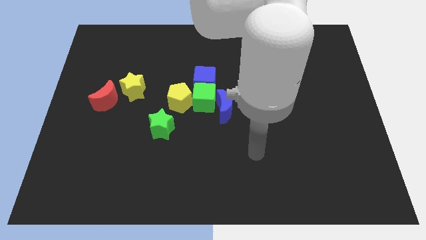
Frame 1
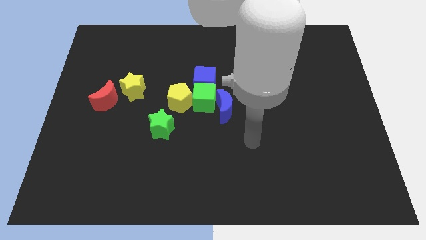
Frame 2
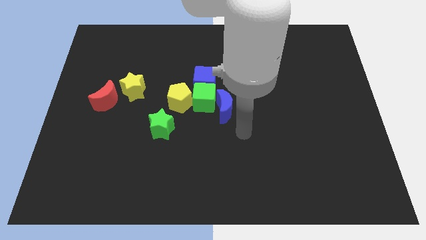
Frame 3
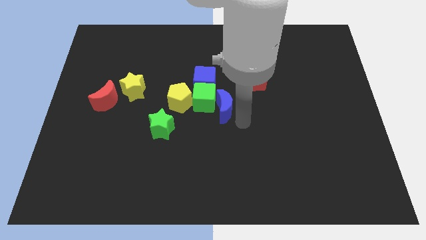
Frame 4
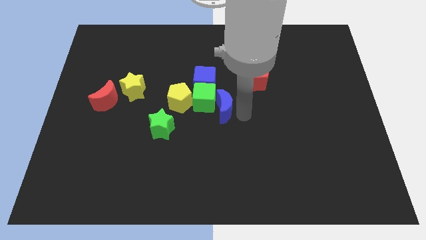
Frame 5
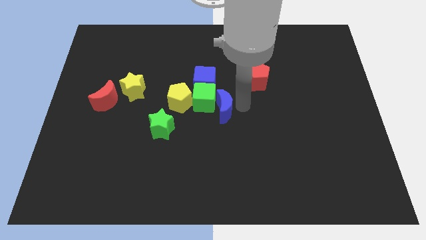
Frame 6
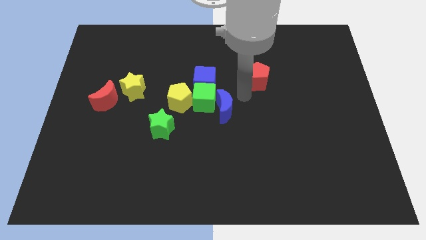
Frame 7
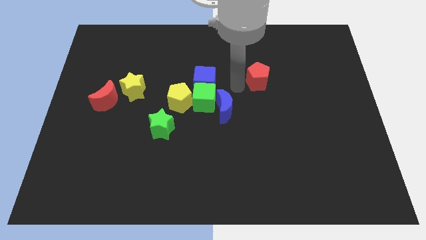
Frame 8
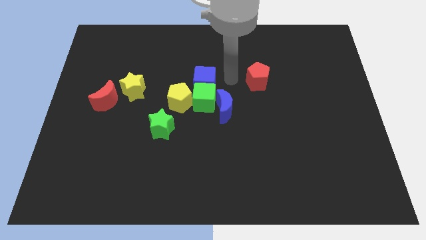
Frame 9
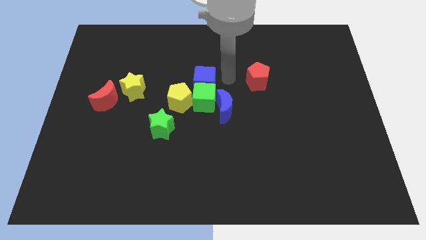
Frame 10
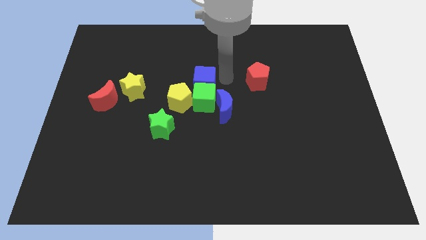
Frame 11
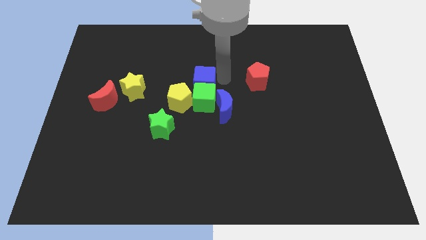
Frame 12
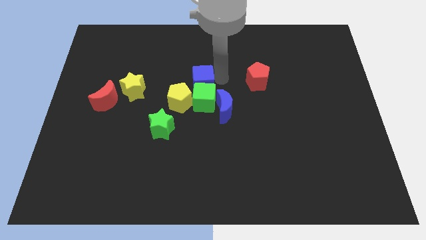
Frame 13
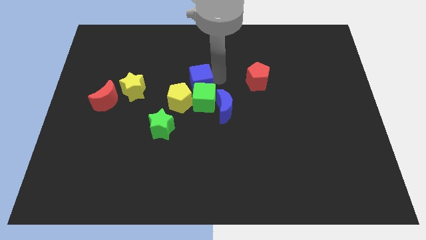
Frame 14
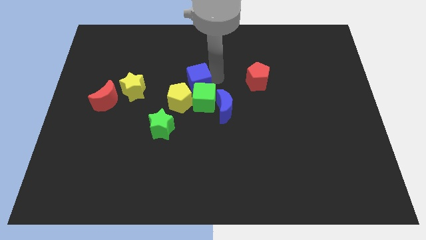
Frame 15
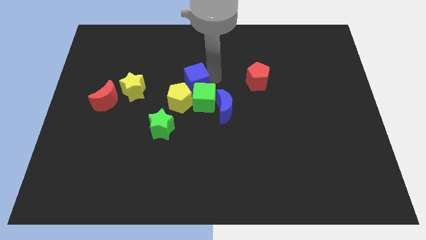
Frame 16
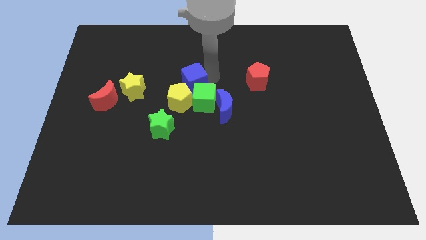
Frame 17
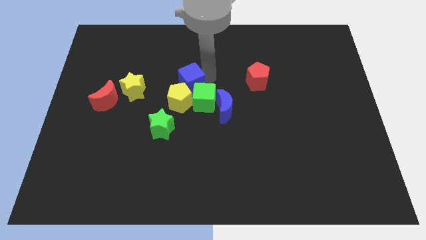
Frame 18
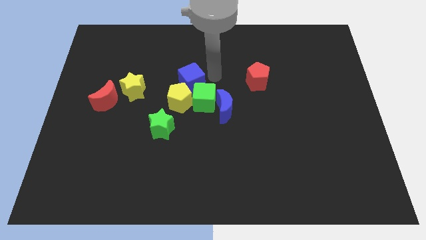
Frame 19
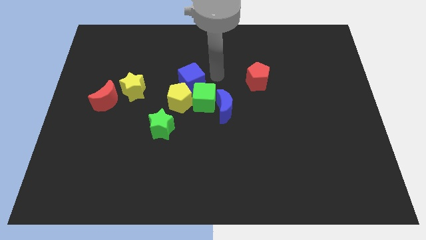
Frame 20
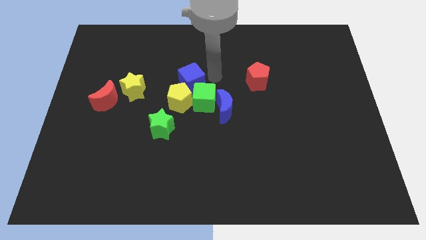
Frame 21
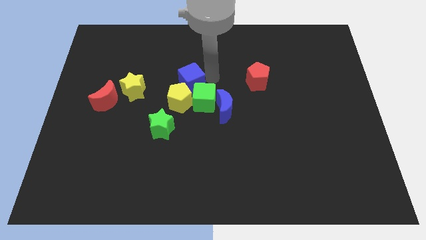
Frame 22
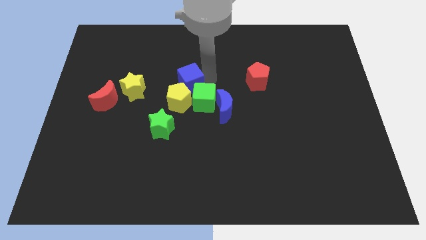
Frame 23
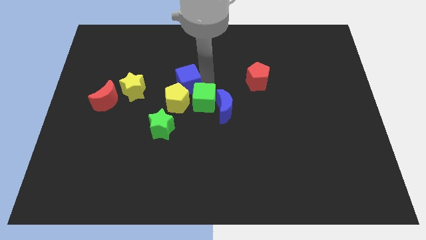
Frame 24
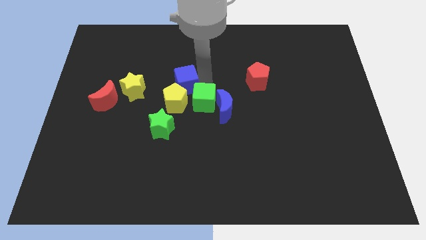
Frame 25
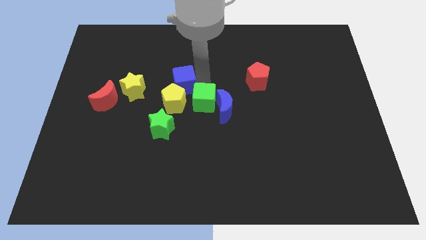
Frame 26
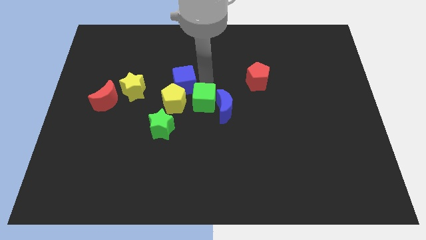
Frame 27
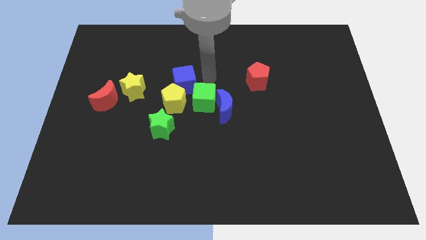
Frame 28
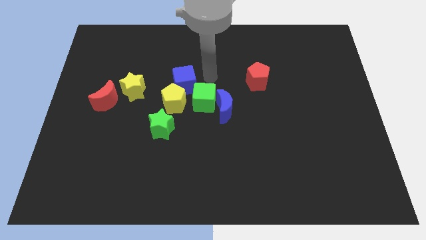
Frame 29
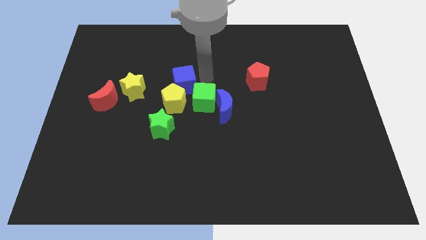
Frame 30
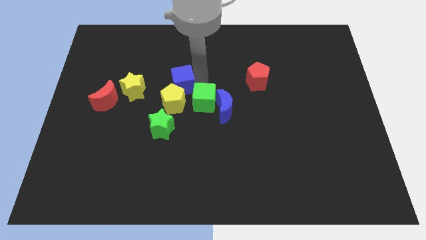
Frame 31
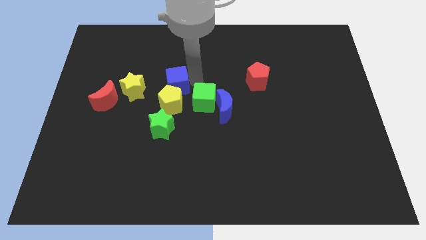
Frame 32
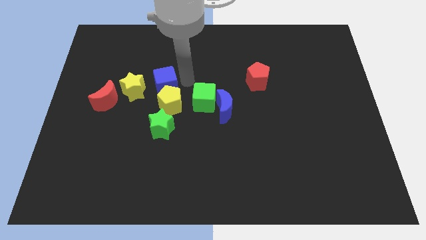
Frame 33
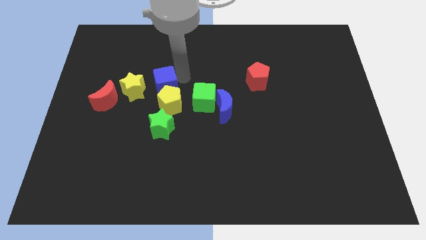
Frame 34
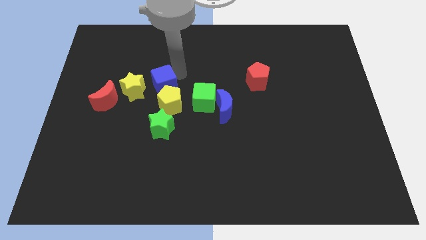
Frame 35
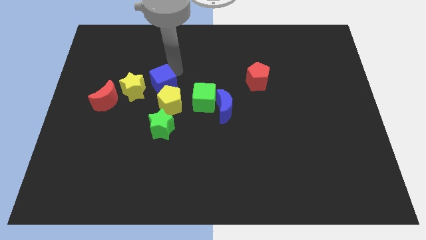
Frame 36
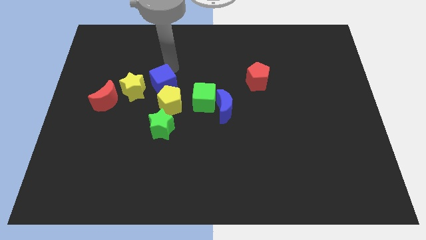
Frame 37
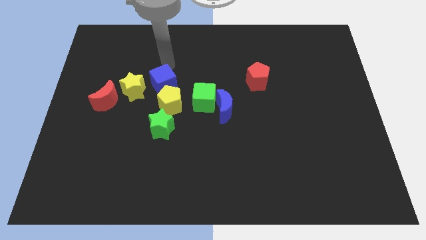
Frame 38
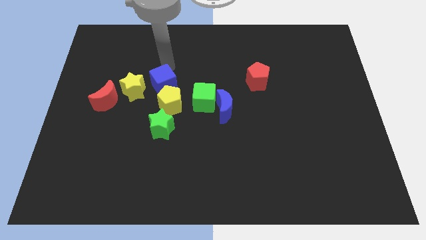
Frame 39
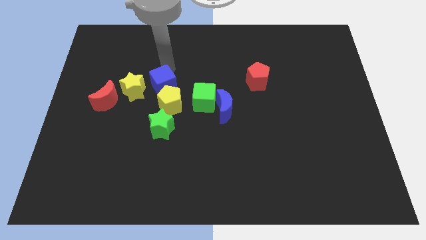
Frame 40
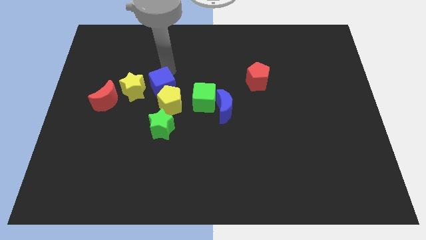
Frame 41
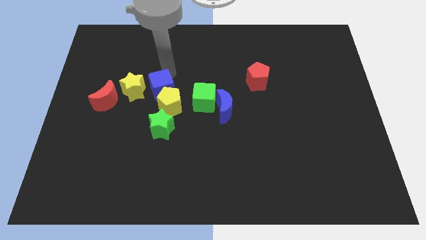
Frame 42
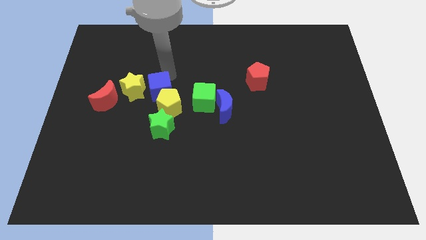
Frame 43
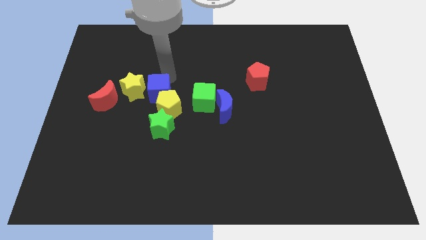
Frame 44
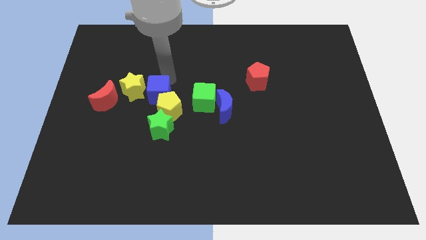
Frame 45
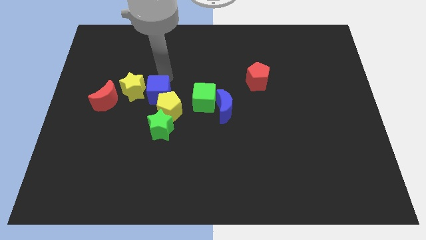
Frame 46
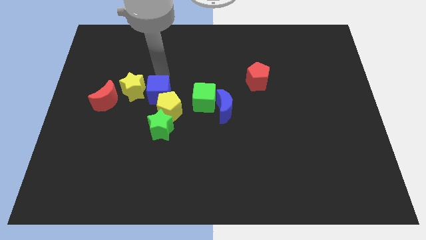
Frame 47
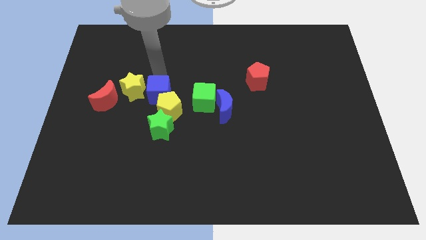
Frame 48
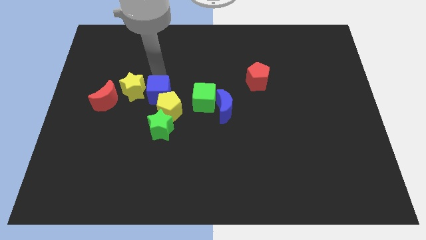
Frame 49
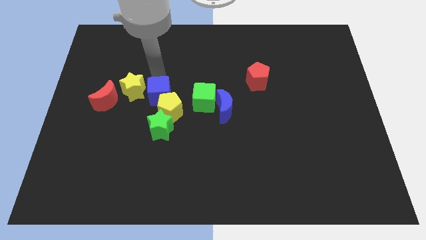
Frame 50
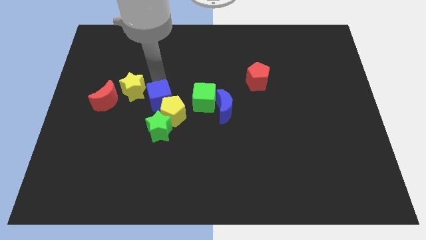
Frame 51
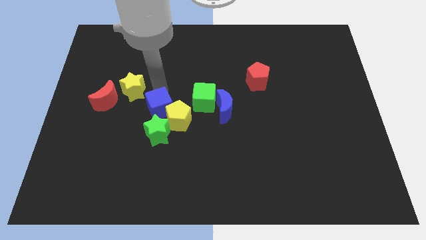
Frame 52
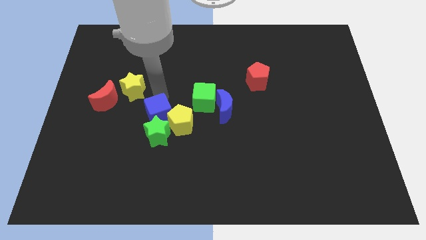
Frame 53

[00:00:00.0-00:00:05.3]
put the blue cube close to the green star

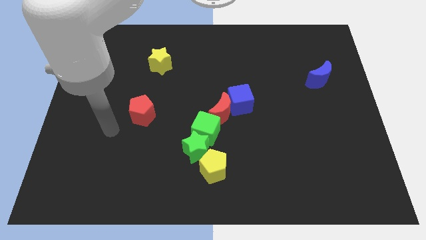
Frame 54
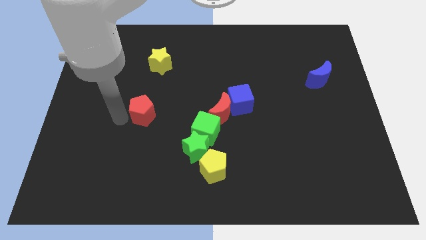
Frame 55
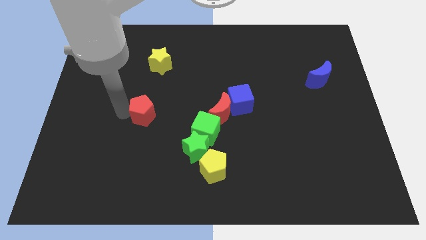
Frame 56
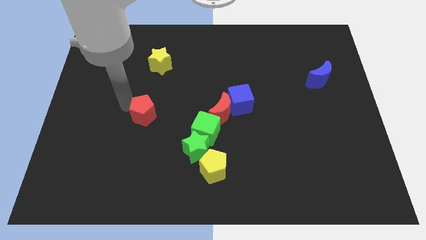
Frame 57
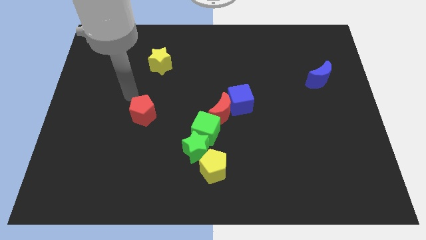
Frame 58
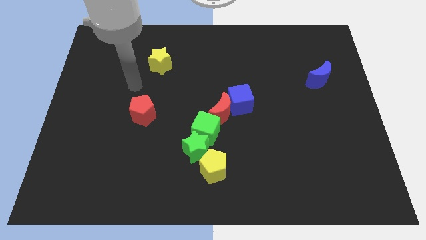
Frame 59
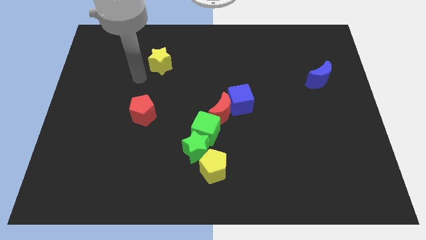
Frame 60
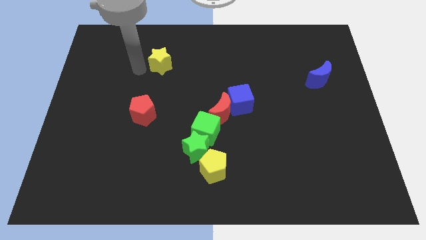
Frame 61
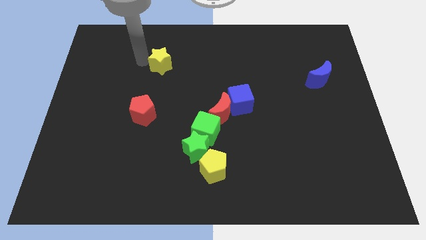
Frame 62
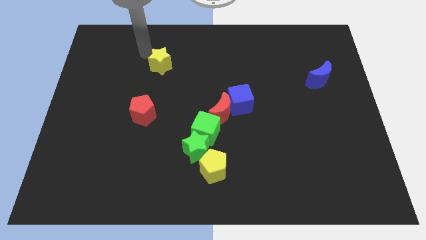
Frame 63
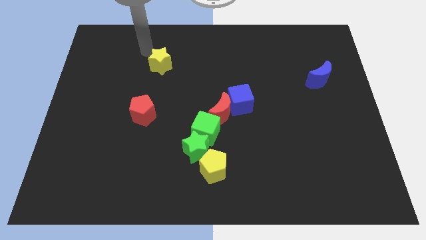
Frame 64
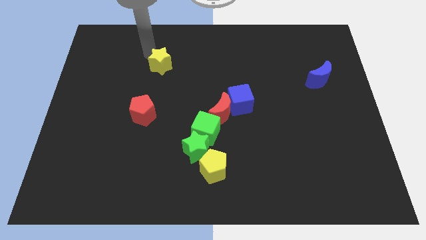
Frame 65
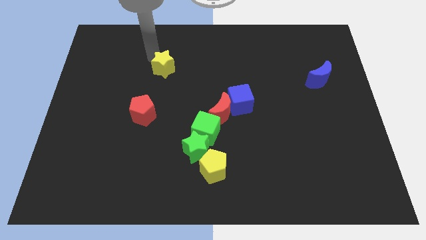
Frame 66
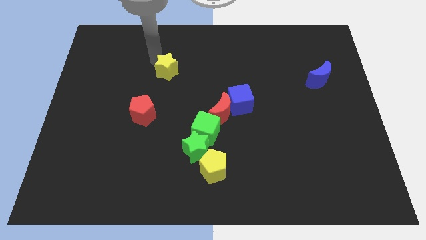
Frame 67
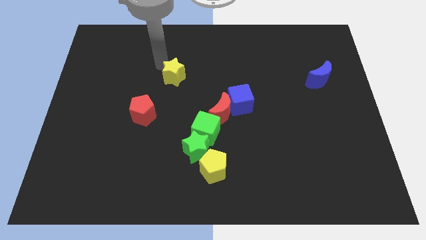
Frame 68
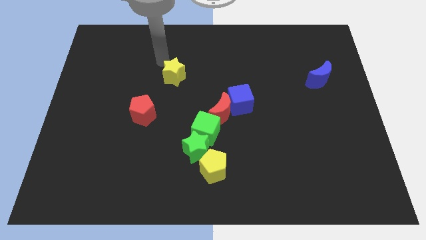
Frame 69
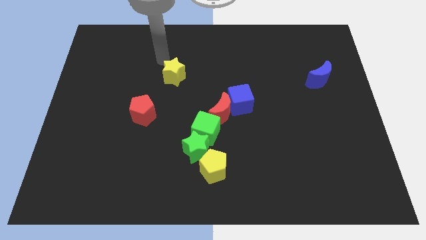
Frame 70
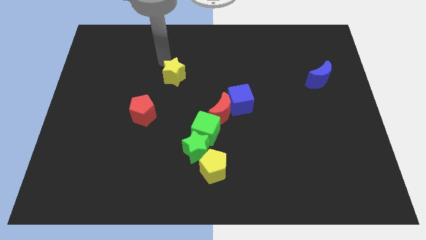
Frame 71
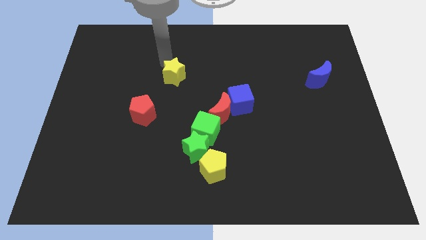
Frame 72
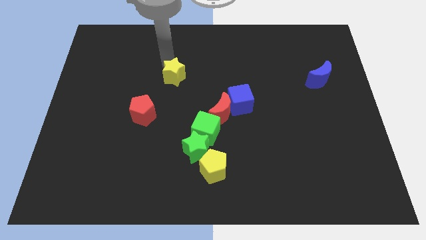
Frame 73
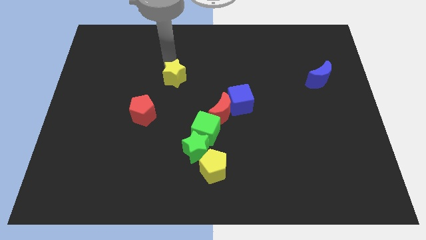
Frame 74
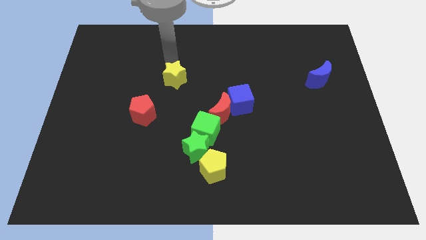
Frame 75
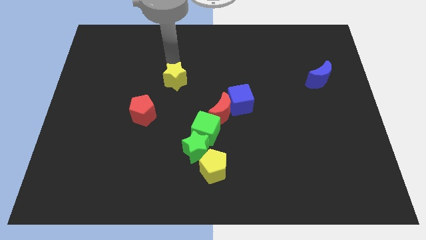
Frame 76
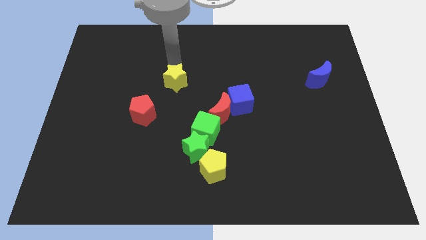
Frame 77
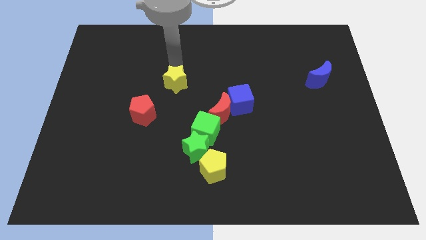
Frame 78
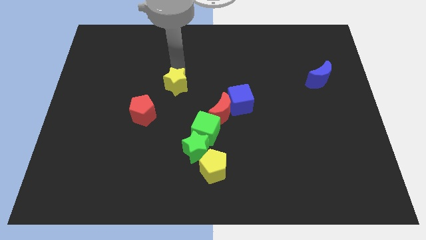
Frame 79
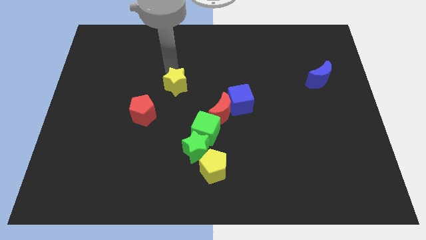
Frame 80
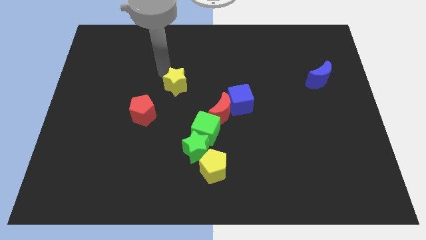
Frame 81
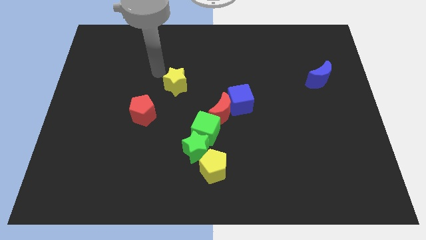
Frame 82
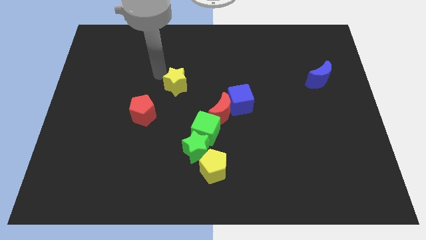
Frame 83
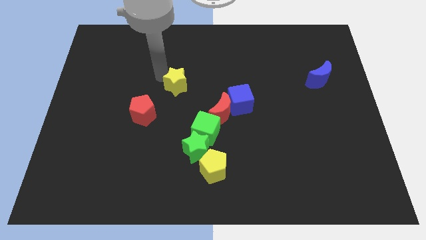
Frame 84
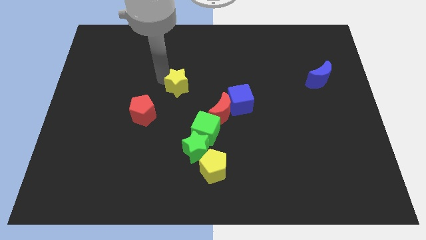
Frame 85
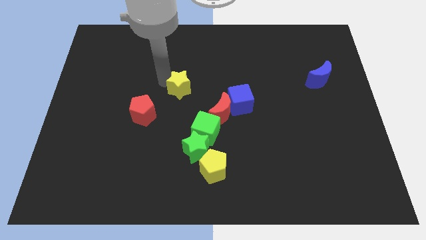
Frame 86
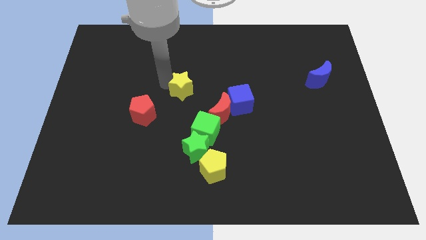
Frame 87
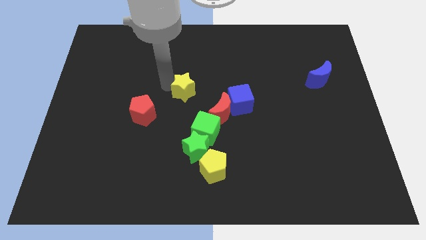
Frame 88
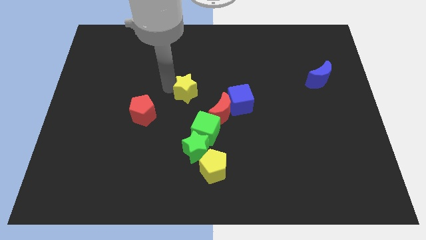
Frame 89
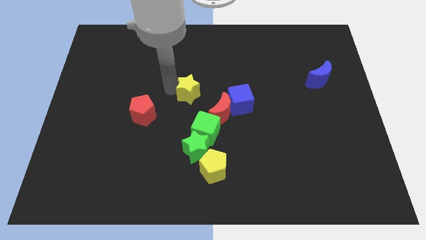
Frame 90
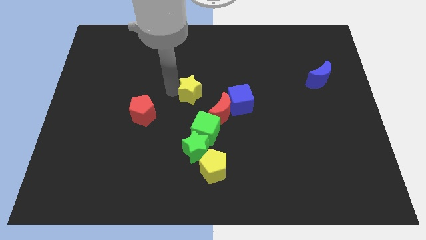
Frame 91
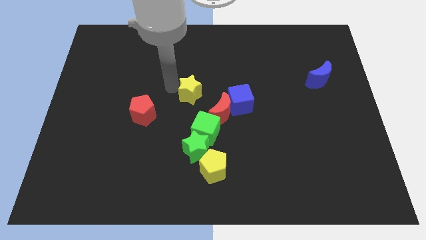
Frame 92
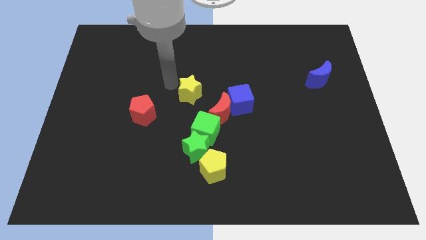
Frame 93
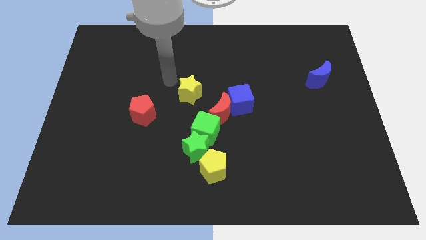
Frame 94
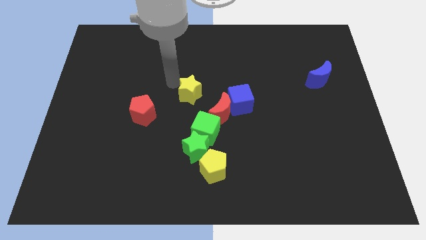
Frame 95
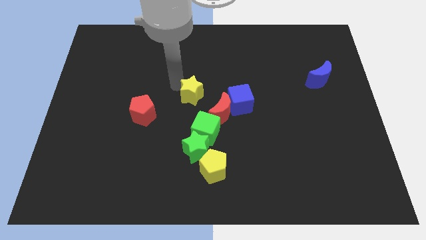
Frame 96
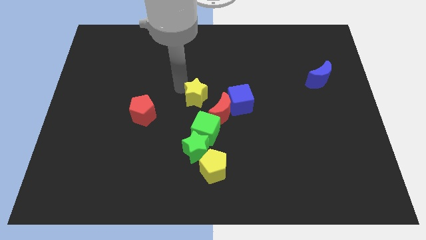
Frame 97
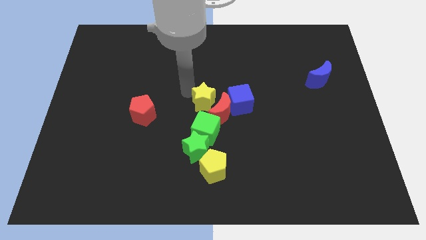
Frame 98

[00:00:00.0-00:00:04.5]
put the yellow star close to the red moon
